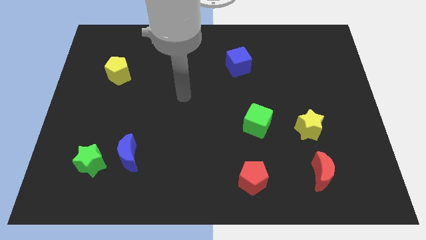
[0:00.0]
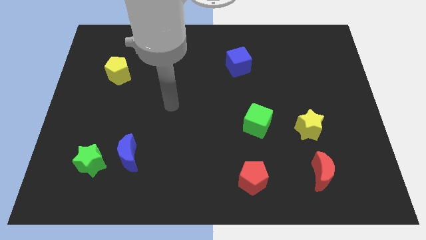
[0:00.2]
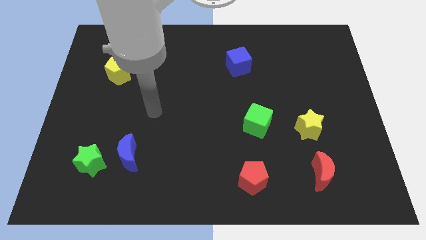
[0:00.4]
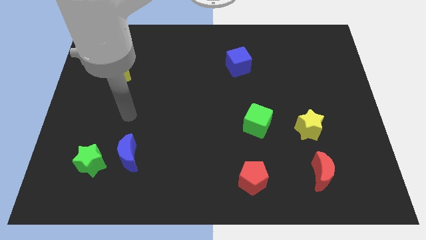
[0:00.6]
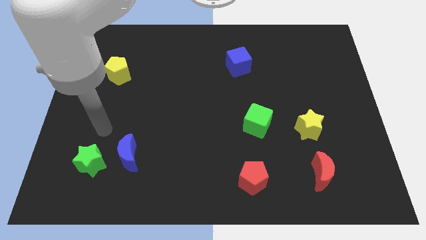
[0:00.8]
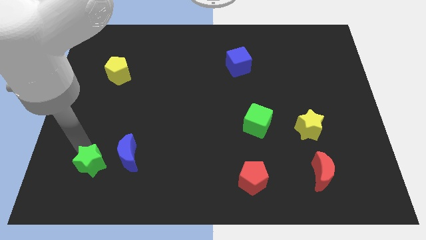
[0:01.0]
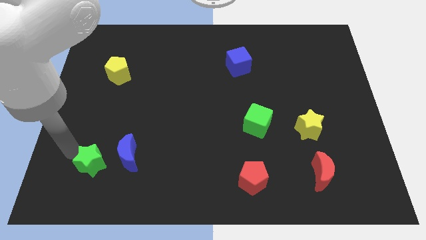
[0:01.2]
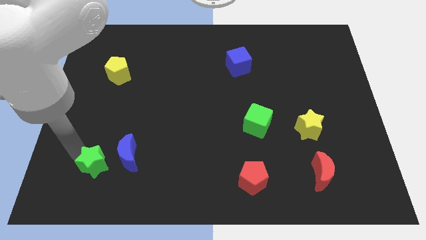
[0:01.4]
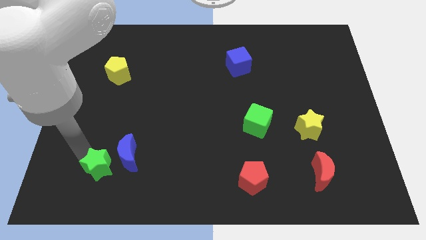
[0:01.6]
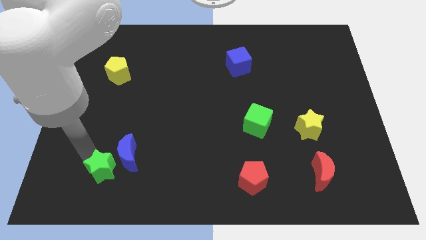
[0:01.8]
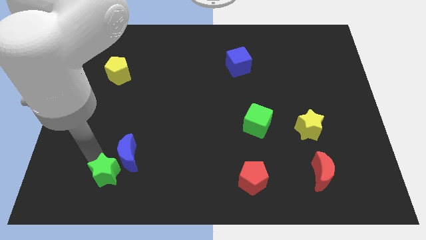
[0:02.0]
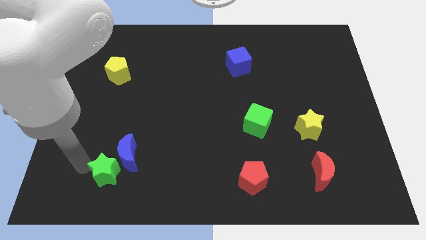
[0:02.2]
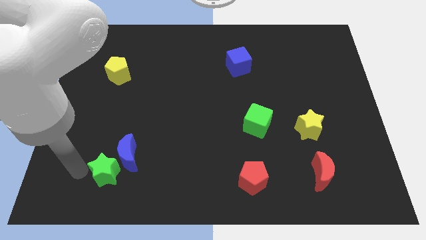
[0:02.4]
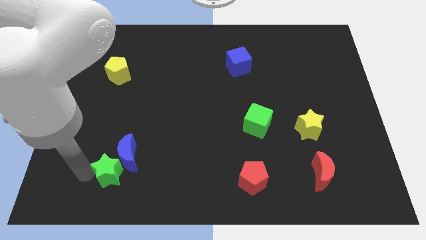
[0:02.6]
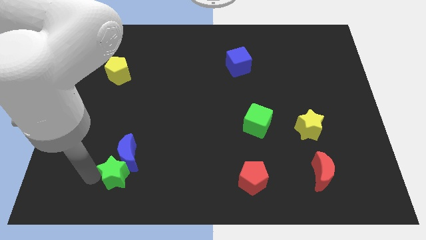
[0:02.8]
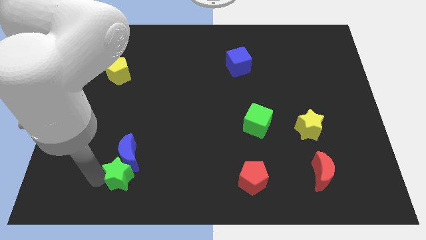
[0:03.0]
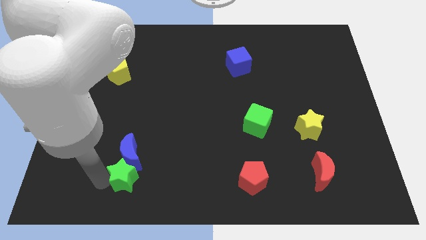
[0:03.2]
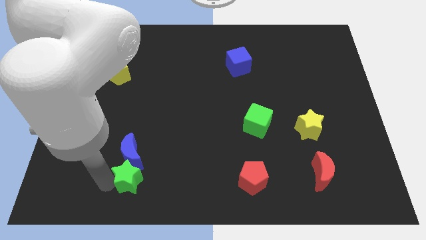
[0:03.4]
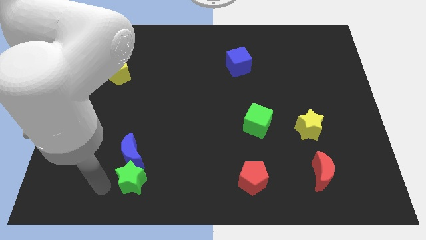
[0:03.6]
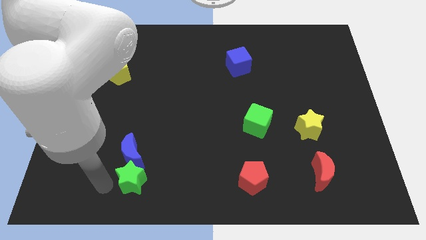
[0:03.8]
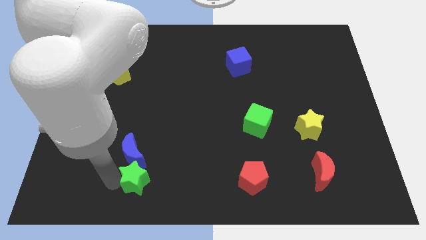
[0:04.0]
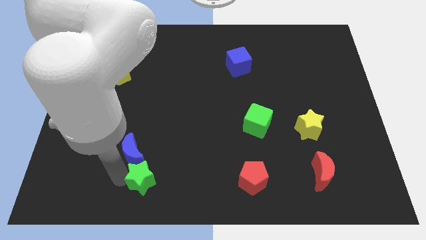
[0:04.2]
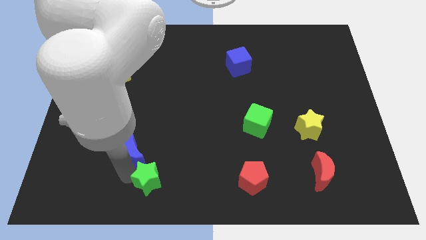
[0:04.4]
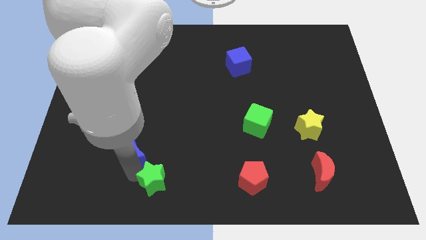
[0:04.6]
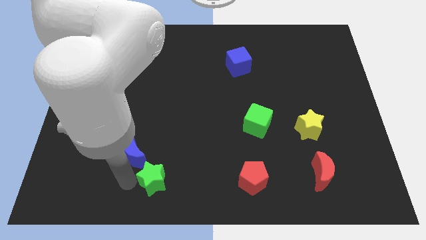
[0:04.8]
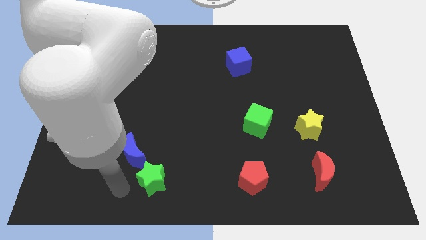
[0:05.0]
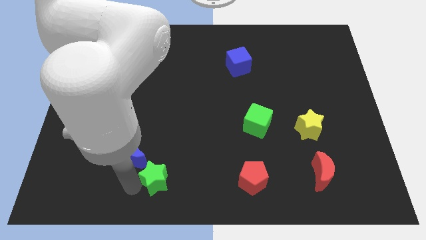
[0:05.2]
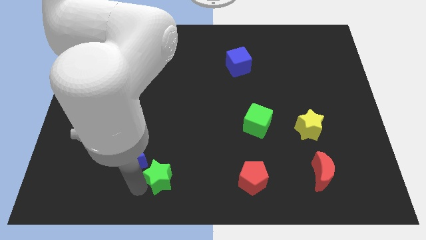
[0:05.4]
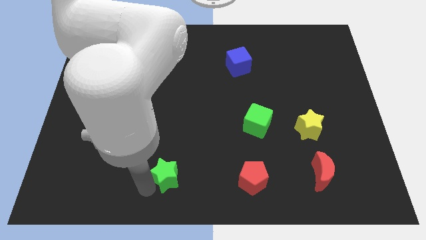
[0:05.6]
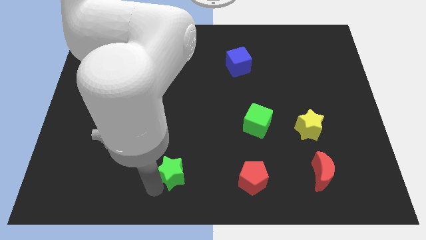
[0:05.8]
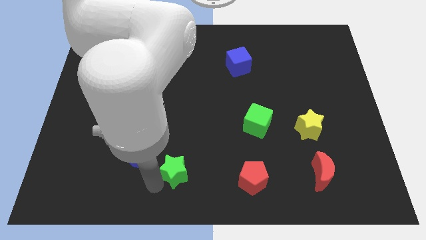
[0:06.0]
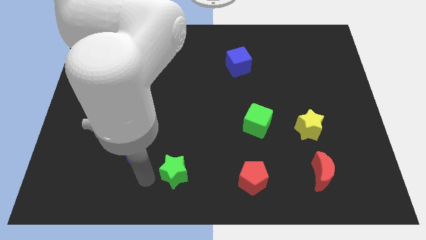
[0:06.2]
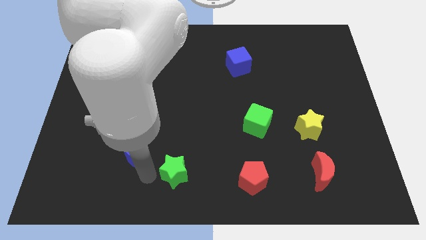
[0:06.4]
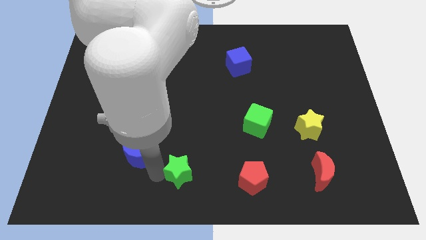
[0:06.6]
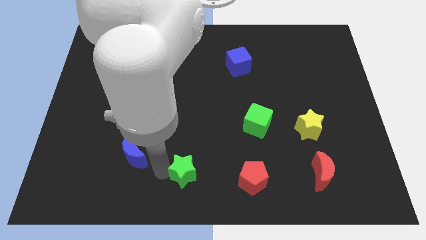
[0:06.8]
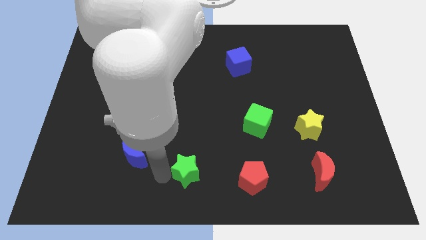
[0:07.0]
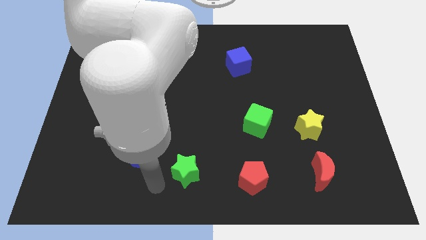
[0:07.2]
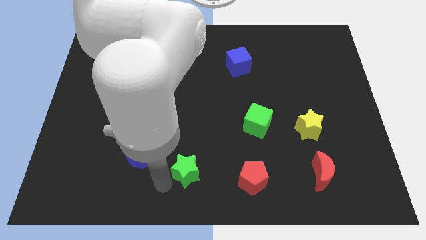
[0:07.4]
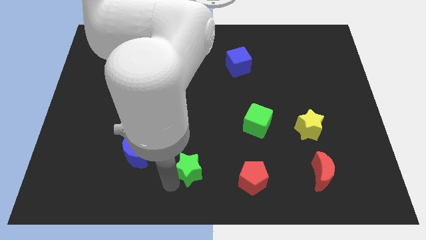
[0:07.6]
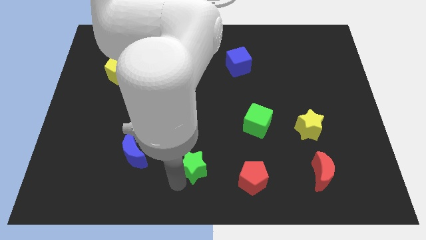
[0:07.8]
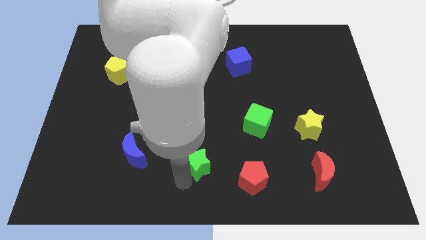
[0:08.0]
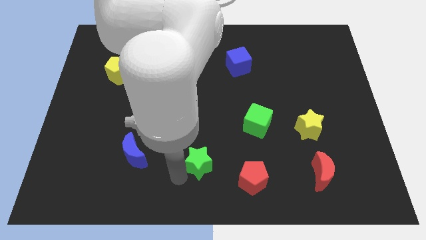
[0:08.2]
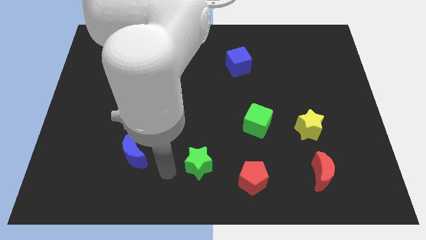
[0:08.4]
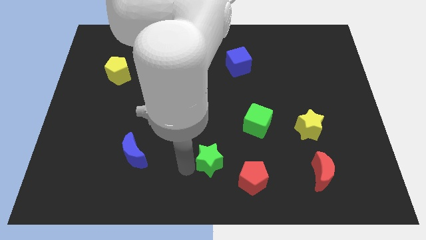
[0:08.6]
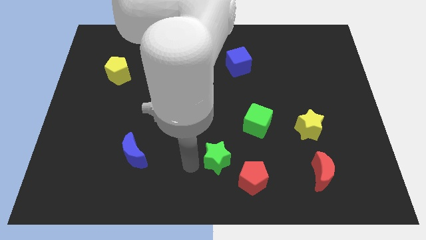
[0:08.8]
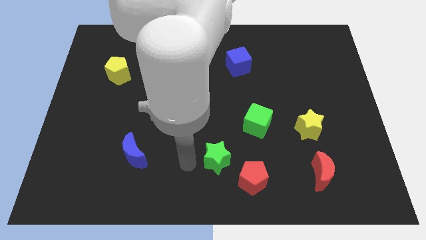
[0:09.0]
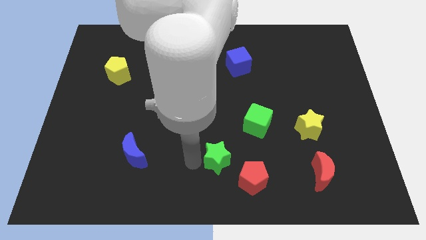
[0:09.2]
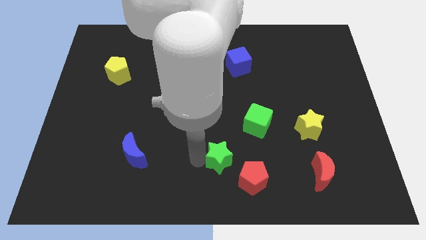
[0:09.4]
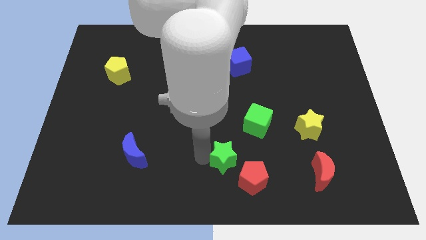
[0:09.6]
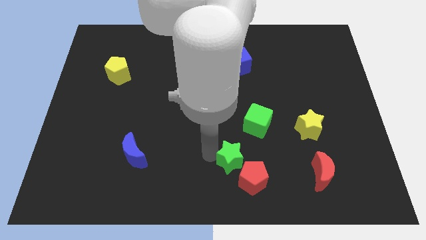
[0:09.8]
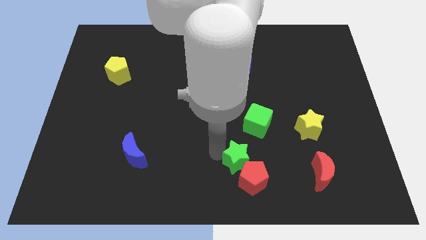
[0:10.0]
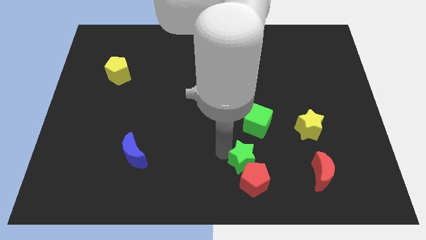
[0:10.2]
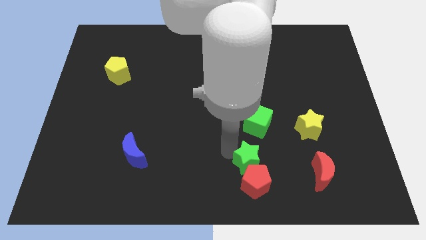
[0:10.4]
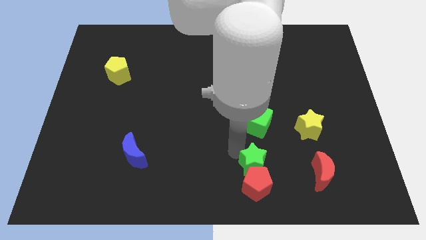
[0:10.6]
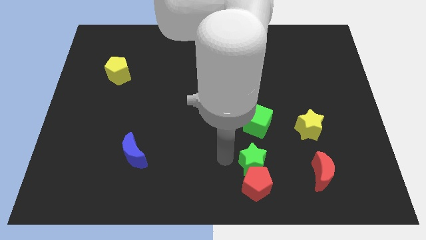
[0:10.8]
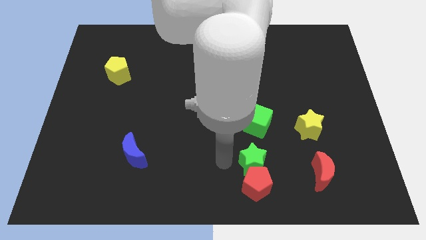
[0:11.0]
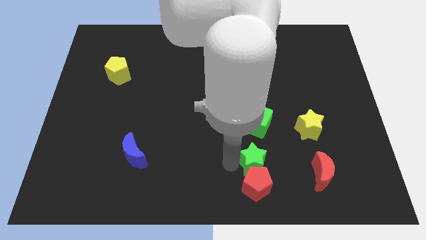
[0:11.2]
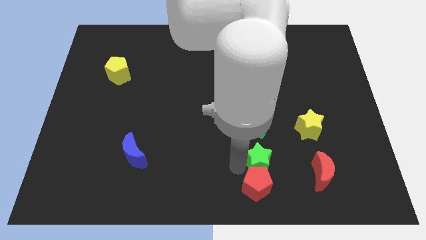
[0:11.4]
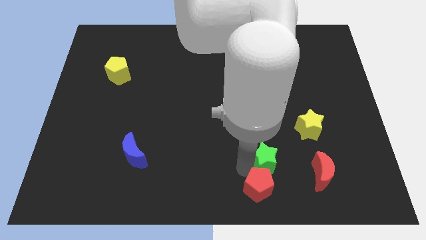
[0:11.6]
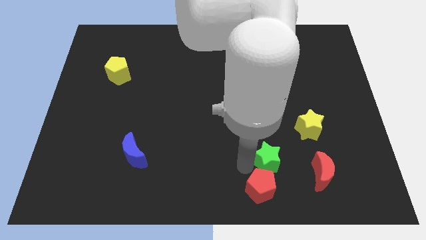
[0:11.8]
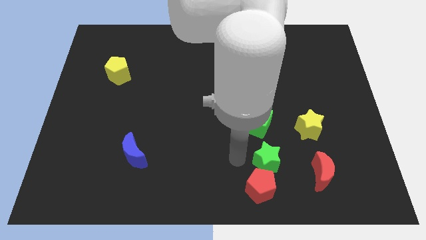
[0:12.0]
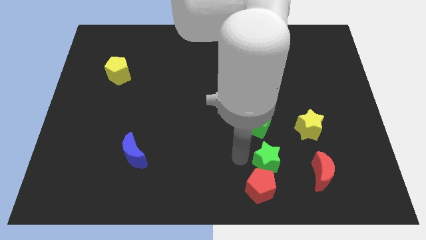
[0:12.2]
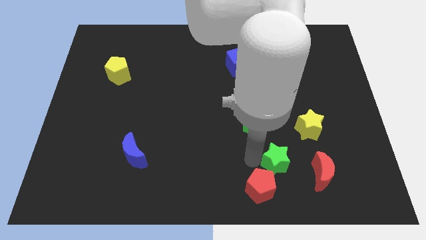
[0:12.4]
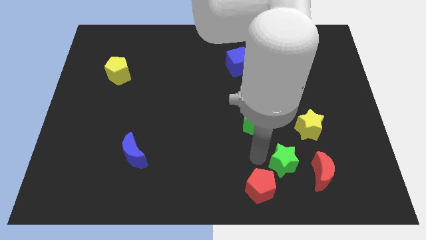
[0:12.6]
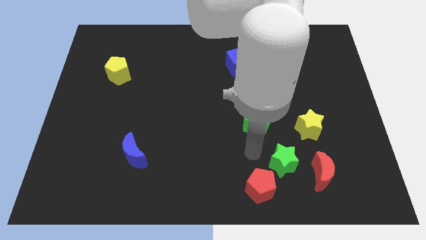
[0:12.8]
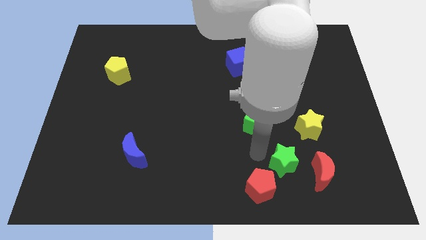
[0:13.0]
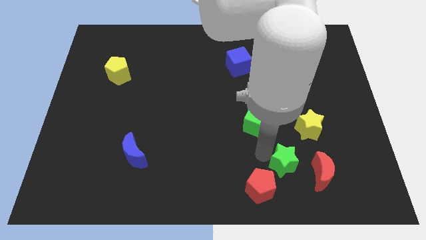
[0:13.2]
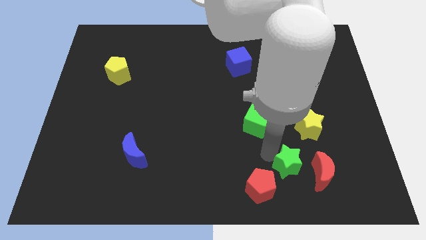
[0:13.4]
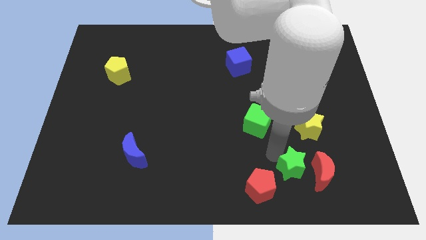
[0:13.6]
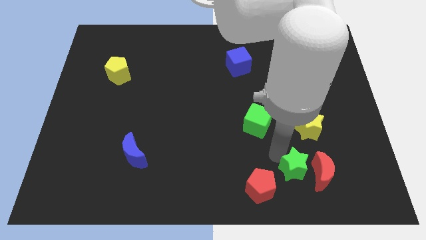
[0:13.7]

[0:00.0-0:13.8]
move the green star to the red moon

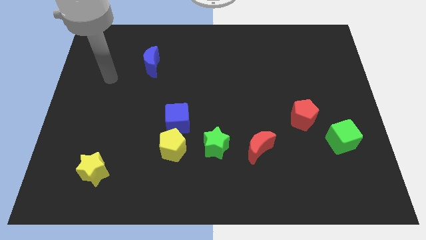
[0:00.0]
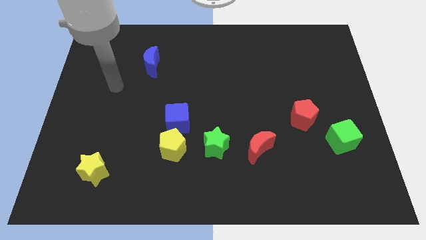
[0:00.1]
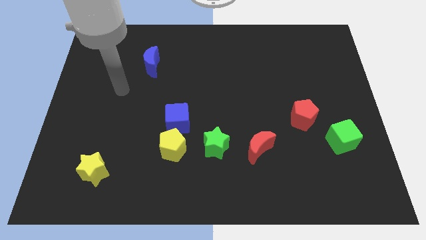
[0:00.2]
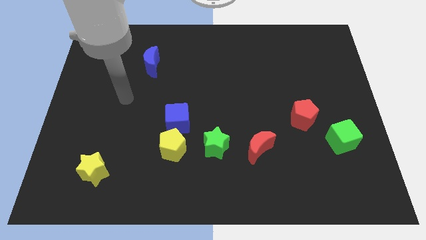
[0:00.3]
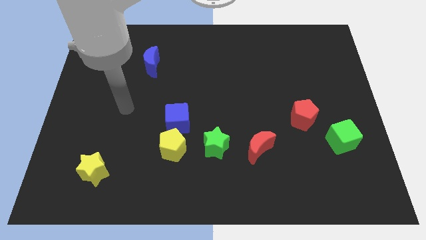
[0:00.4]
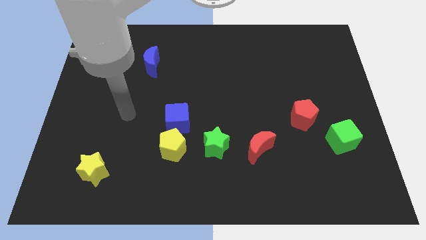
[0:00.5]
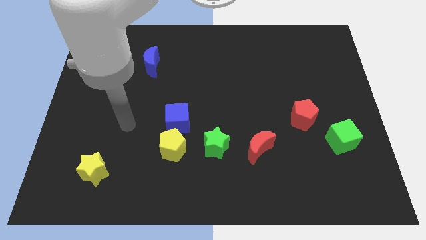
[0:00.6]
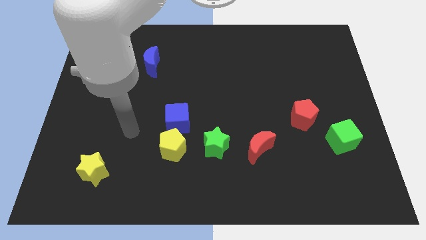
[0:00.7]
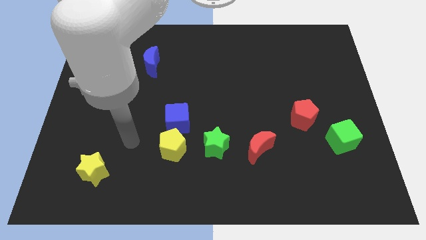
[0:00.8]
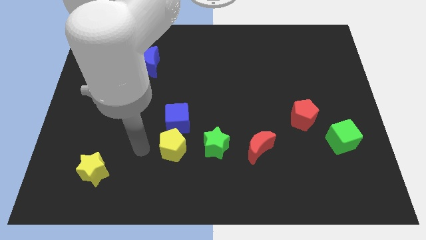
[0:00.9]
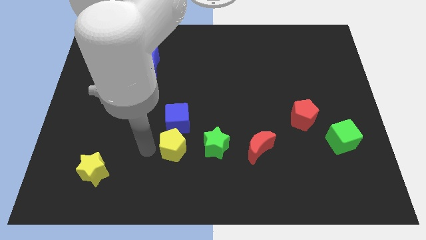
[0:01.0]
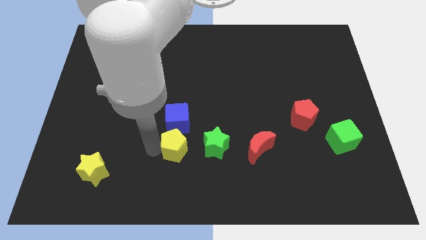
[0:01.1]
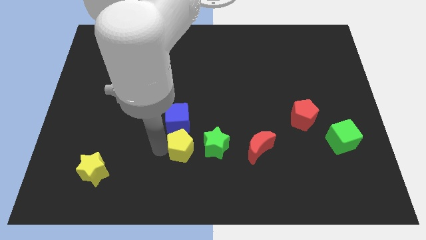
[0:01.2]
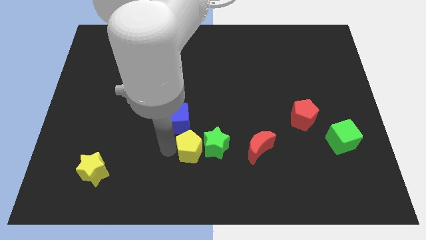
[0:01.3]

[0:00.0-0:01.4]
move the yellow pentagon to the green star
